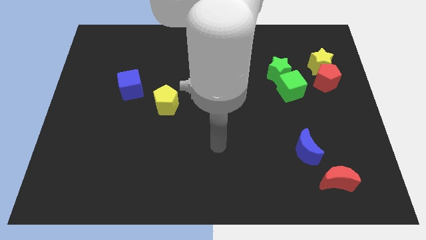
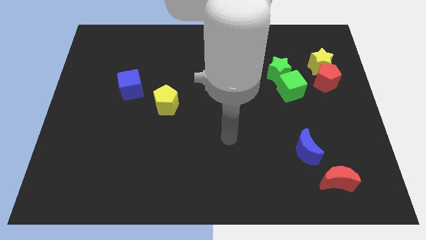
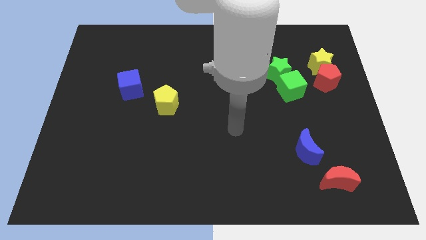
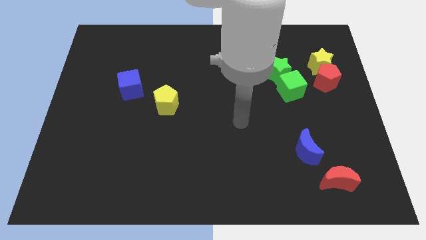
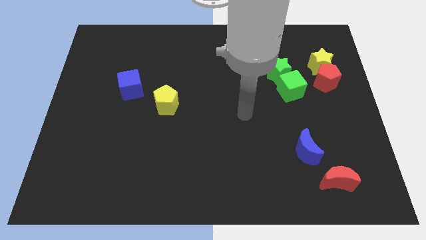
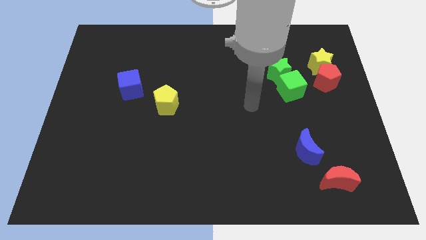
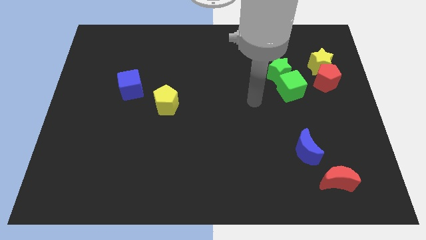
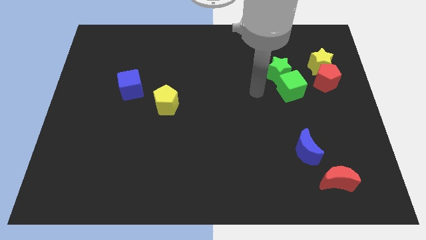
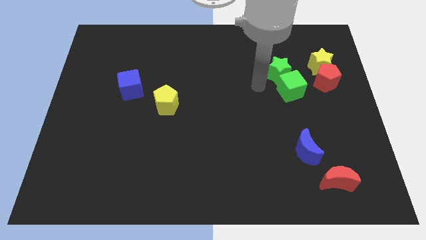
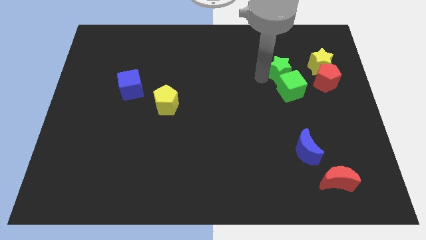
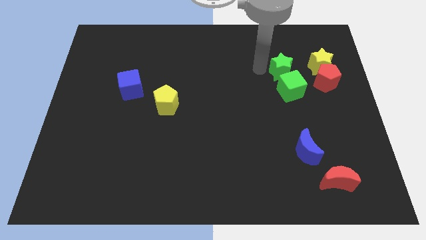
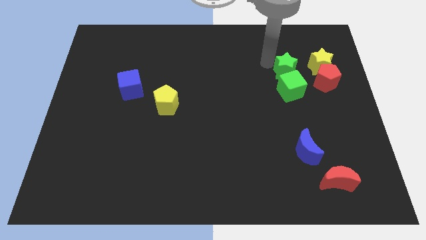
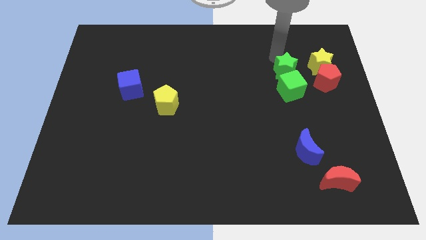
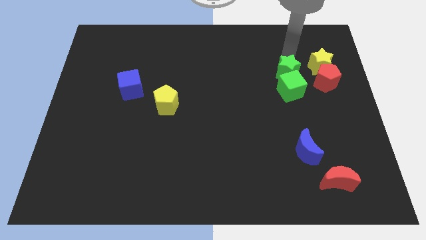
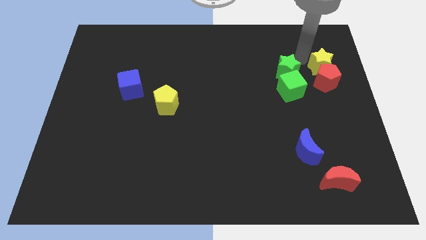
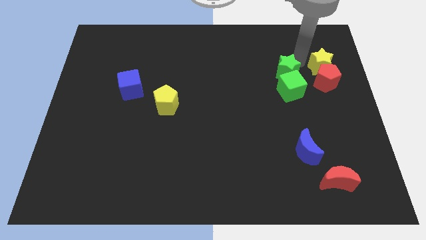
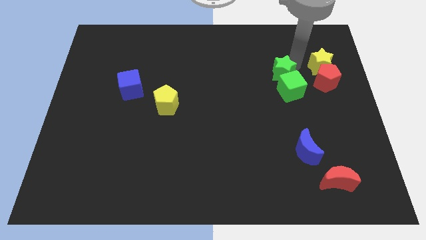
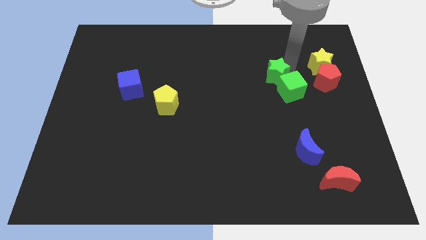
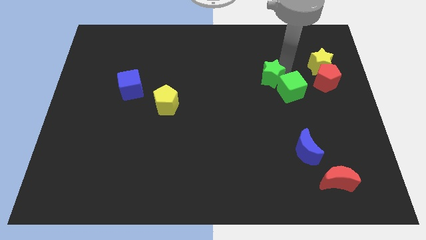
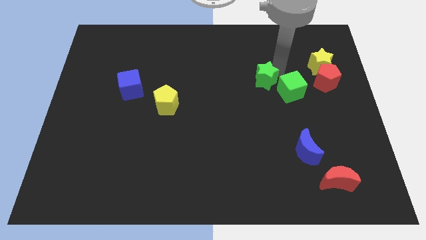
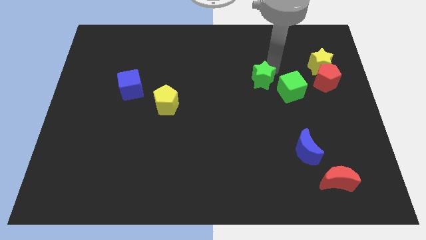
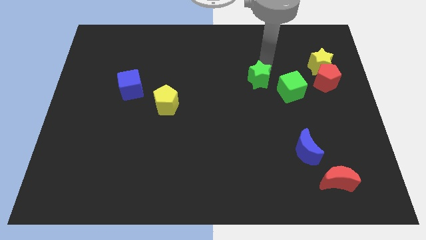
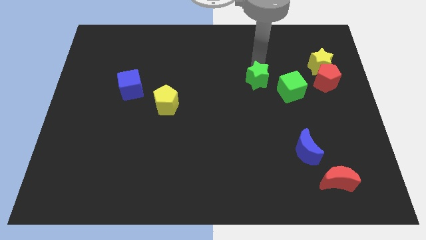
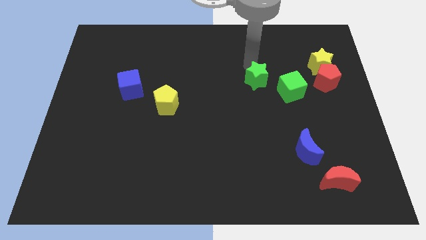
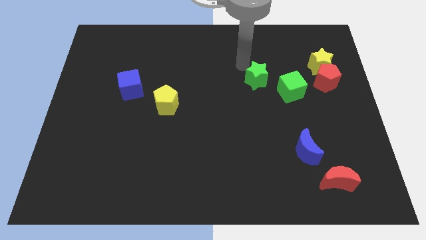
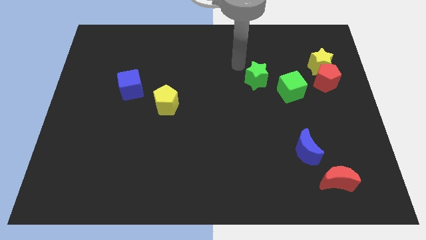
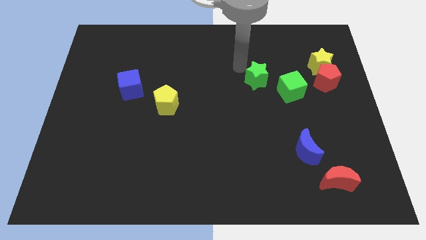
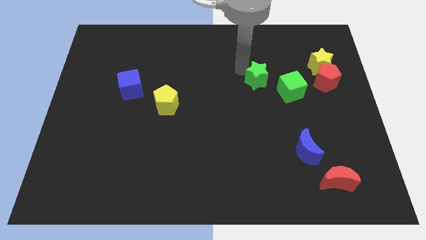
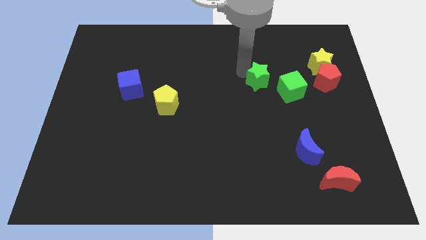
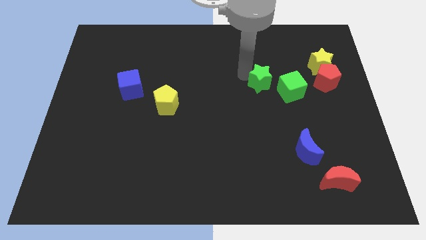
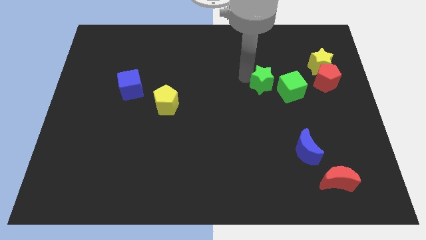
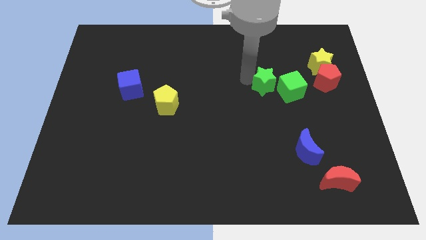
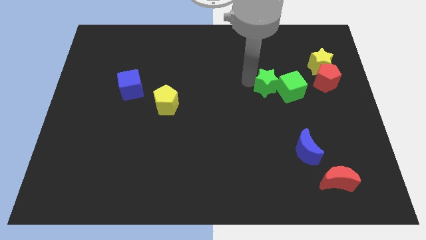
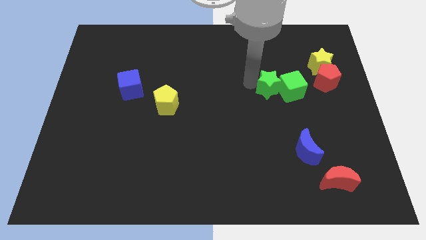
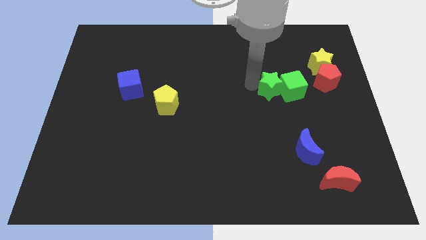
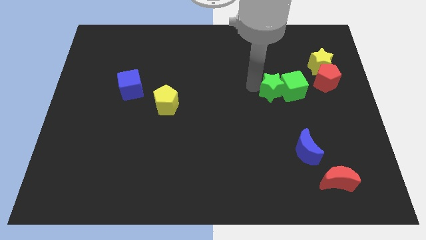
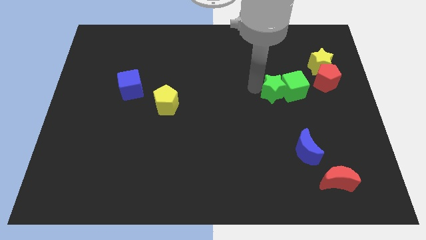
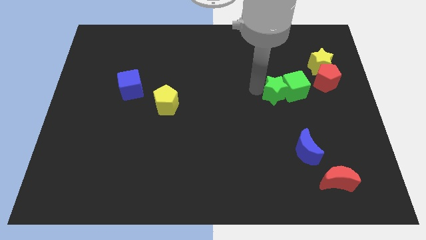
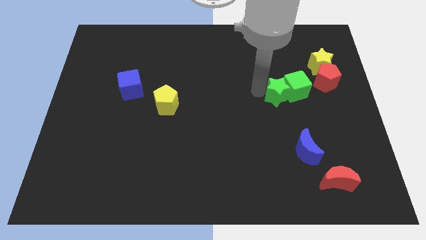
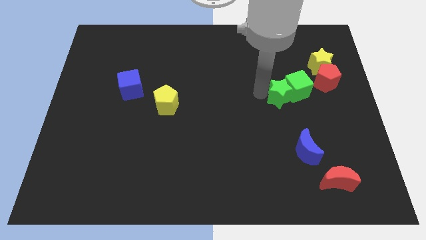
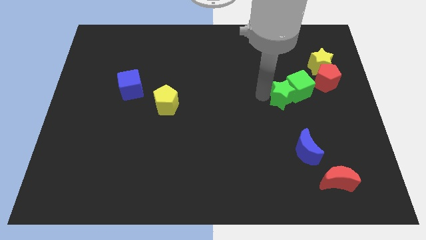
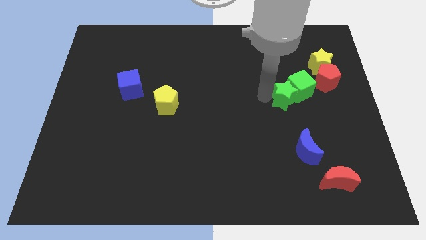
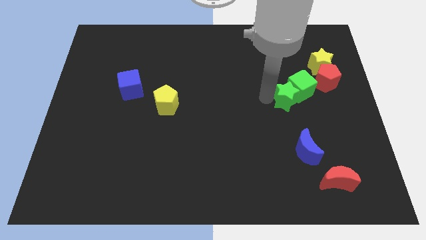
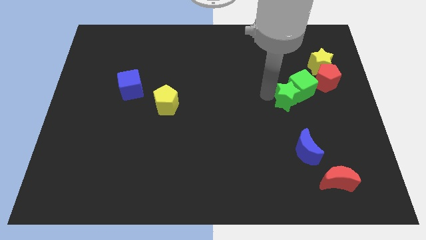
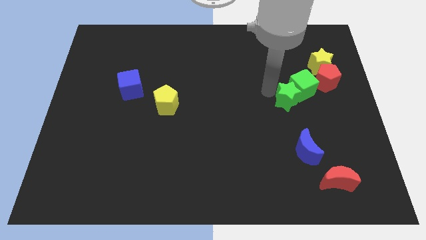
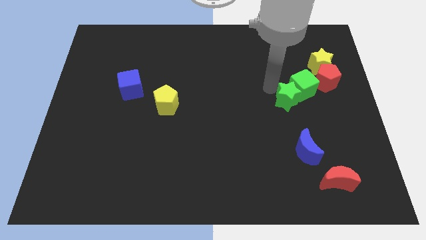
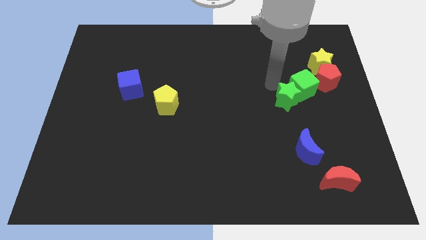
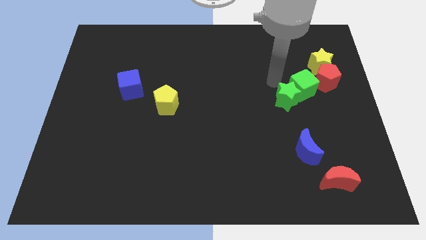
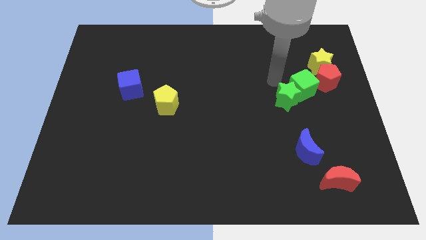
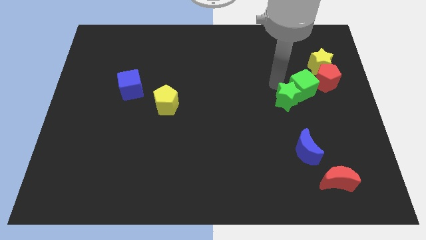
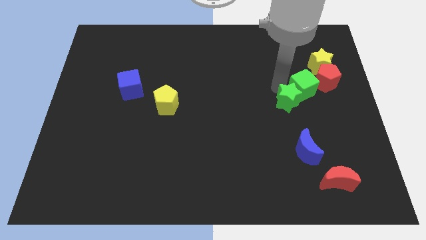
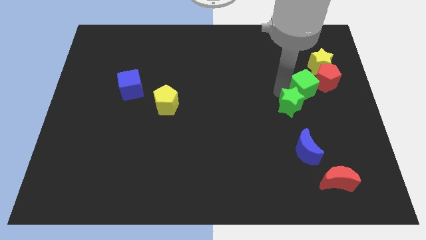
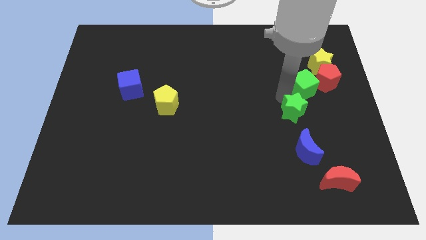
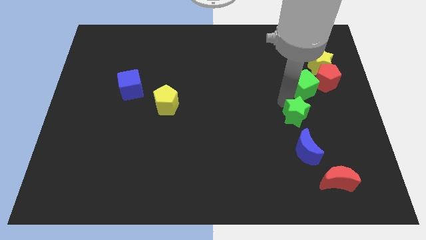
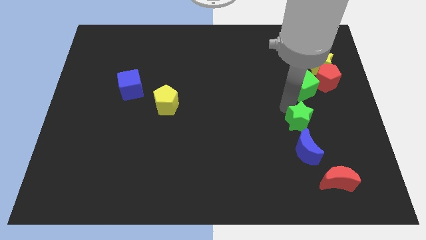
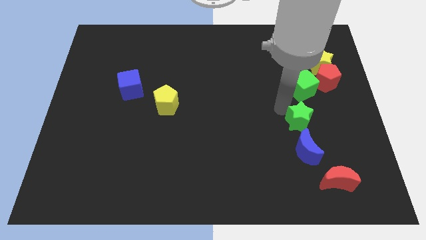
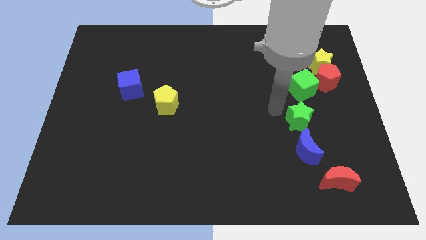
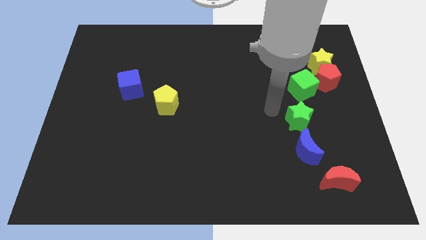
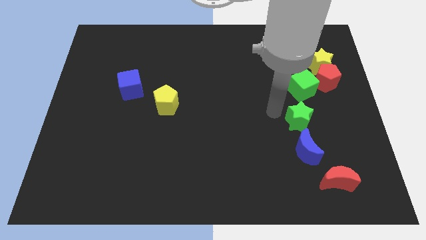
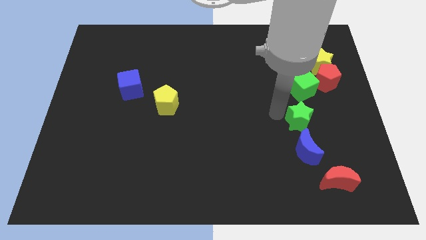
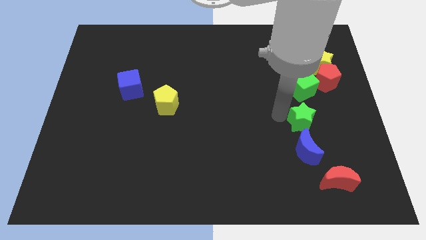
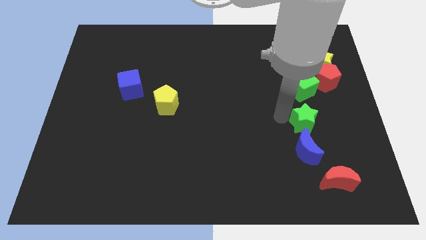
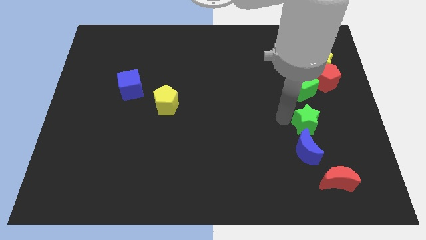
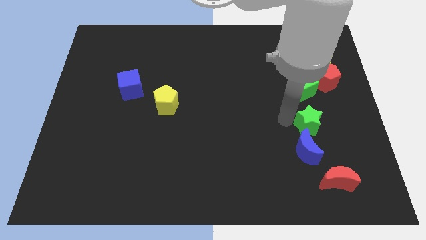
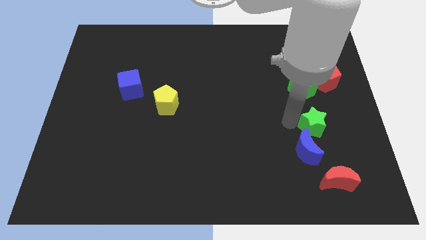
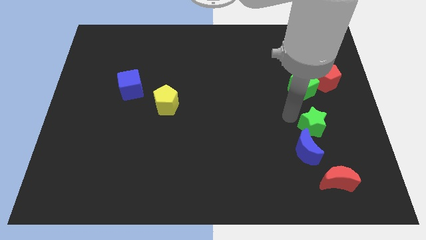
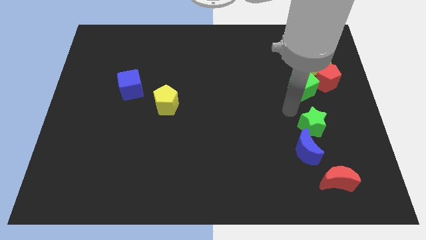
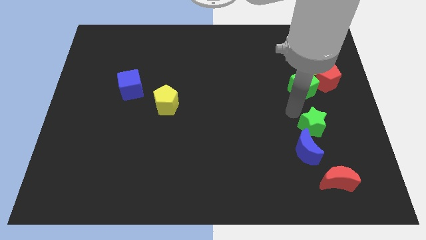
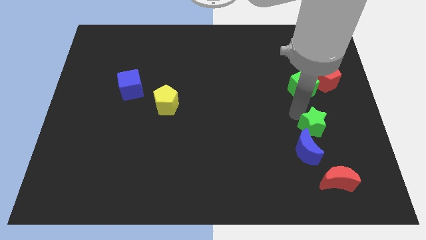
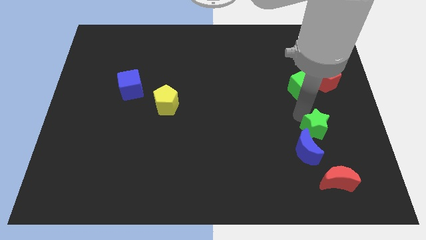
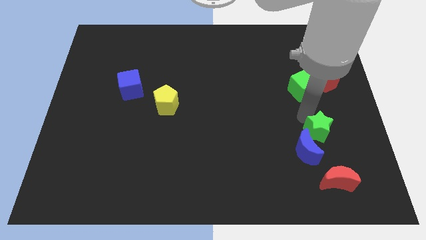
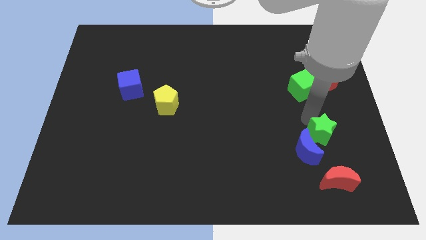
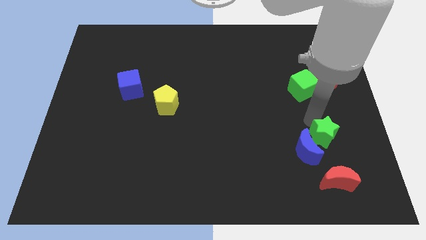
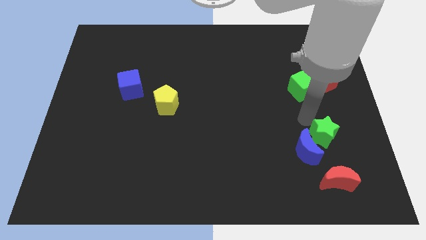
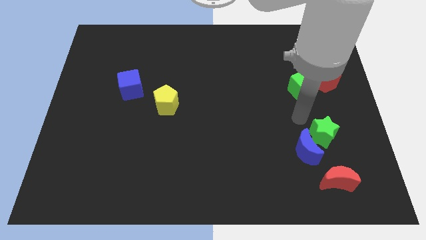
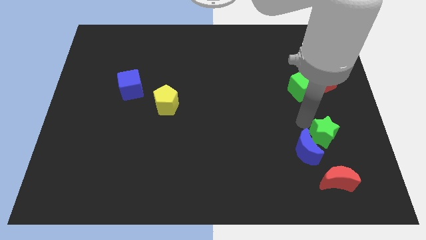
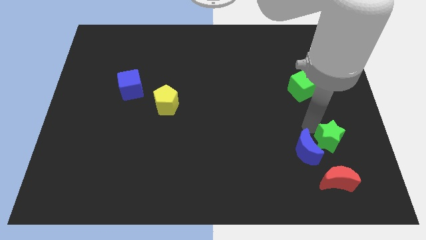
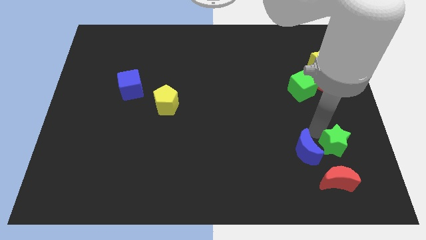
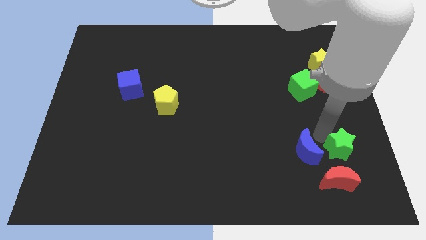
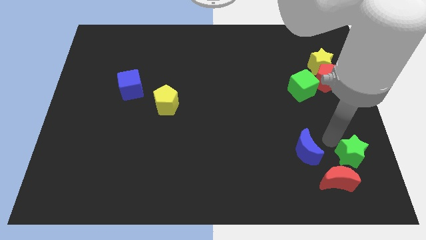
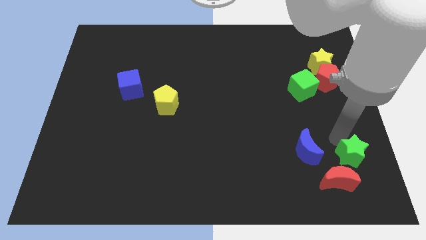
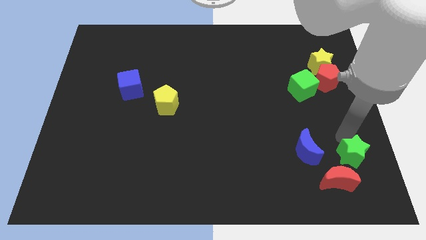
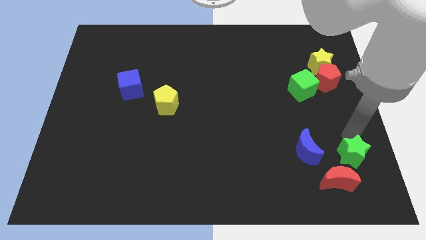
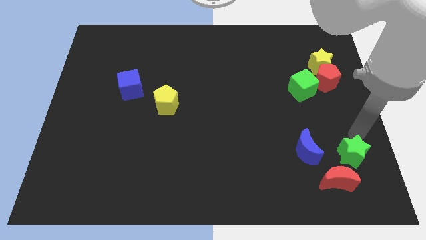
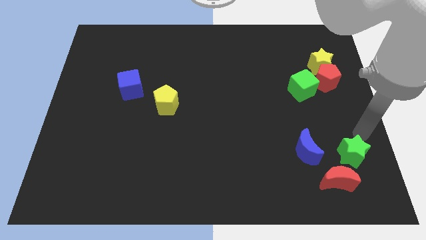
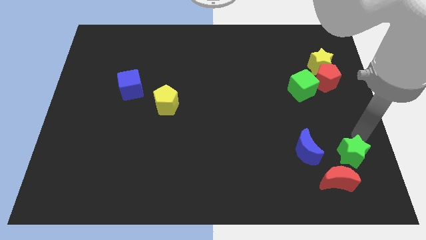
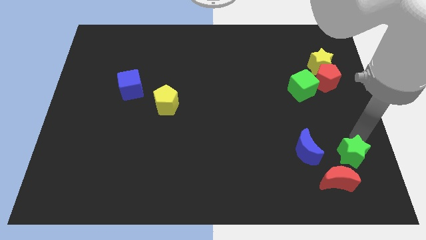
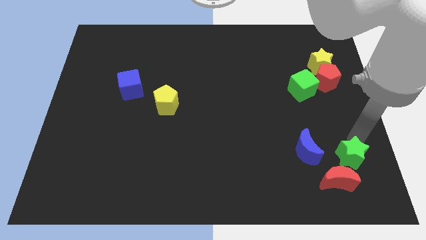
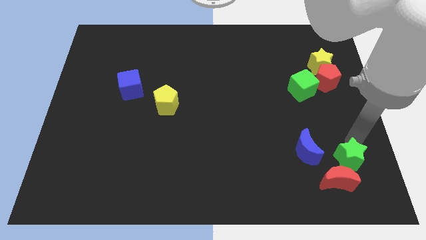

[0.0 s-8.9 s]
push the green star towards the red moon
